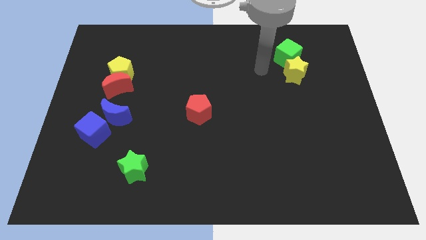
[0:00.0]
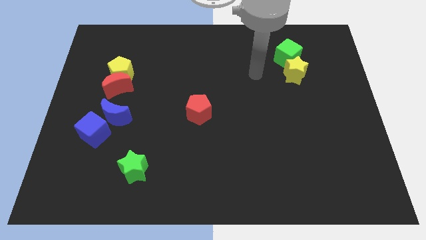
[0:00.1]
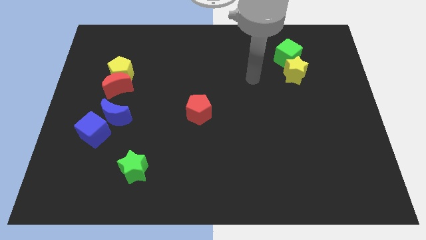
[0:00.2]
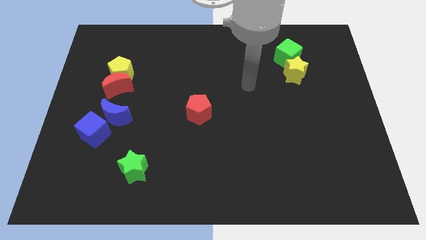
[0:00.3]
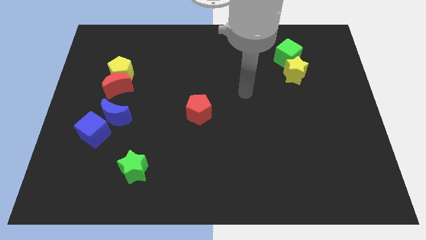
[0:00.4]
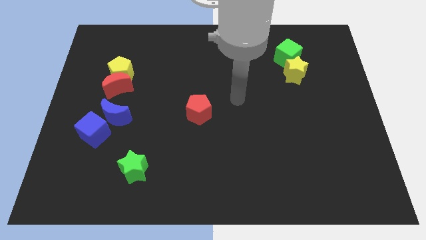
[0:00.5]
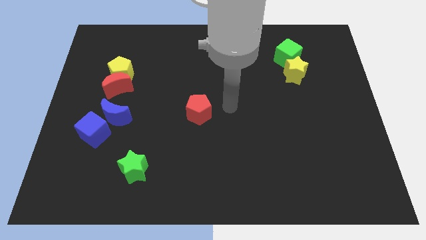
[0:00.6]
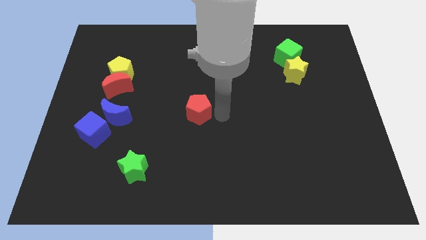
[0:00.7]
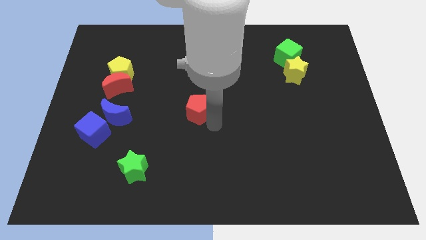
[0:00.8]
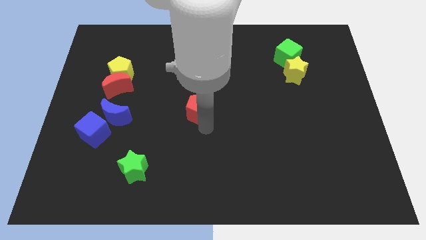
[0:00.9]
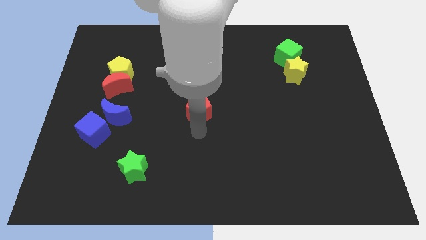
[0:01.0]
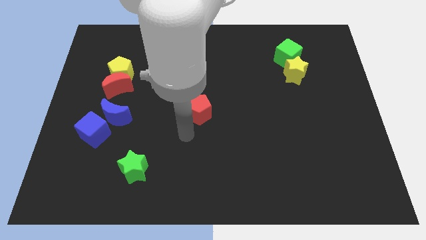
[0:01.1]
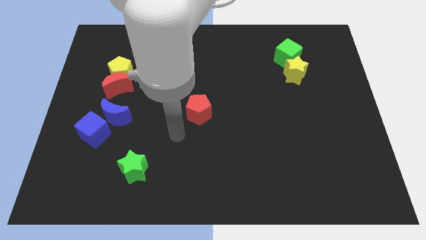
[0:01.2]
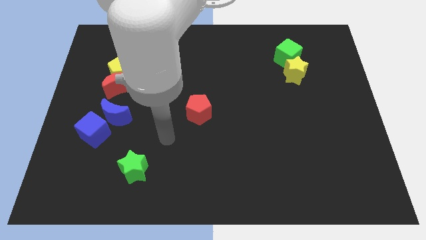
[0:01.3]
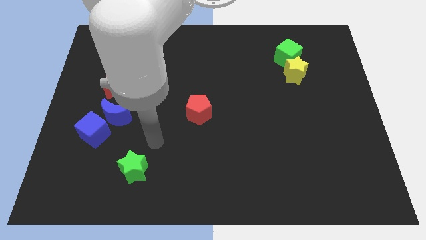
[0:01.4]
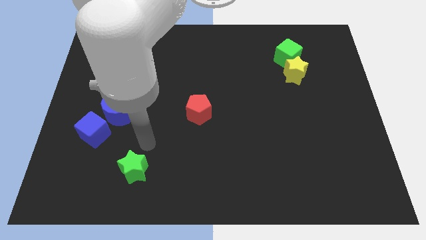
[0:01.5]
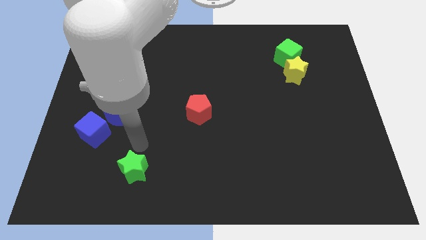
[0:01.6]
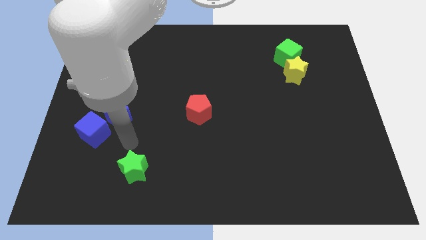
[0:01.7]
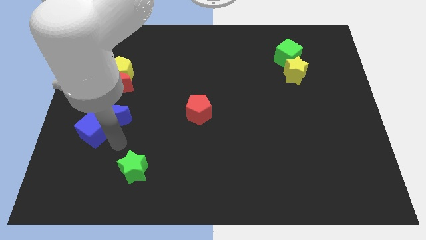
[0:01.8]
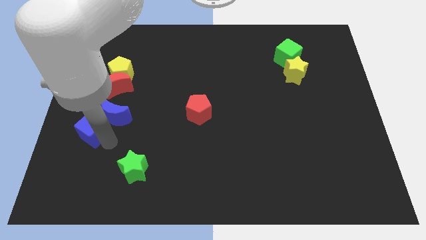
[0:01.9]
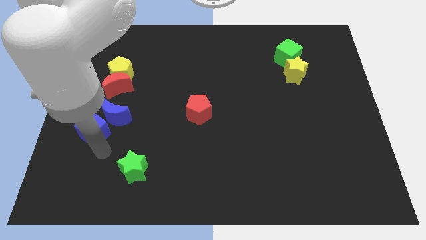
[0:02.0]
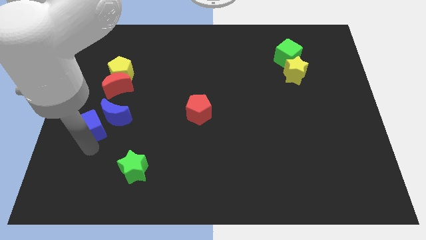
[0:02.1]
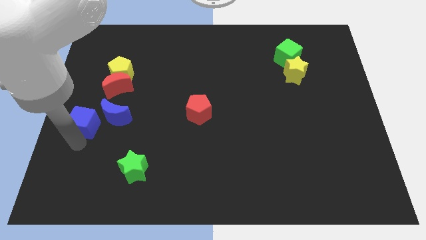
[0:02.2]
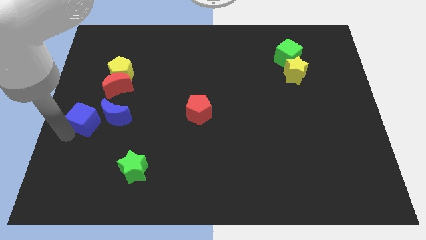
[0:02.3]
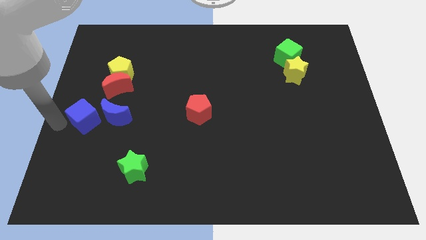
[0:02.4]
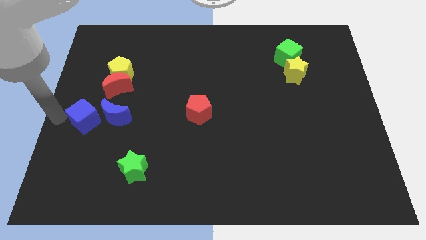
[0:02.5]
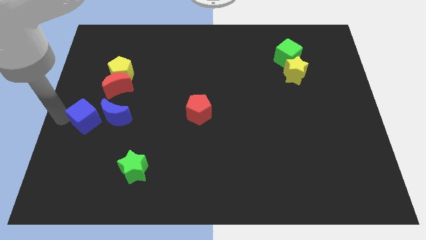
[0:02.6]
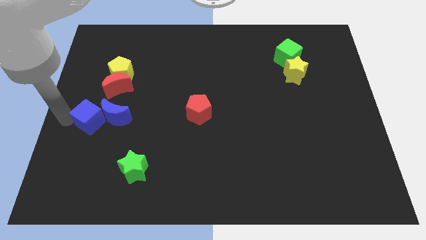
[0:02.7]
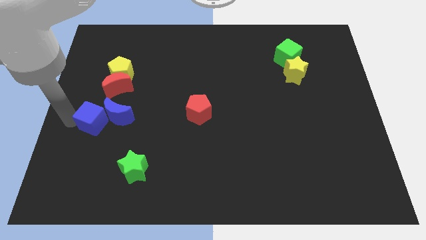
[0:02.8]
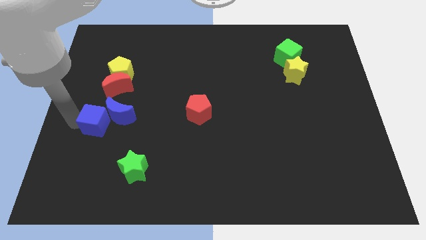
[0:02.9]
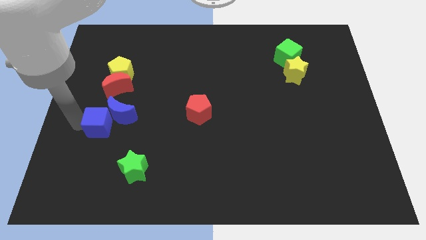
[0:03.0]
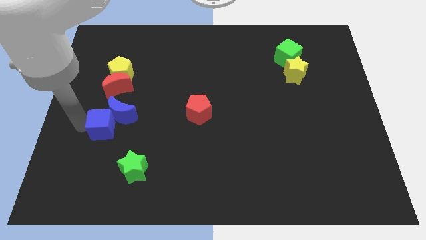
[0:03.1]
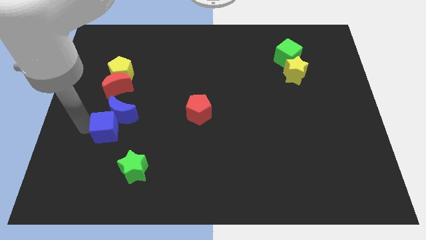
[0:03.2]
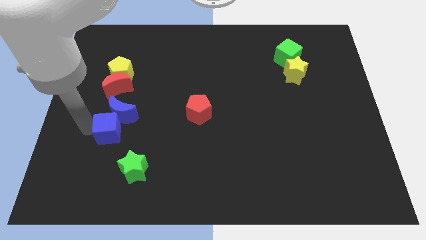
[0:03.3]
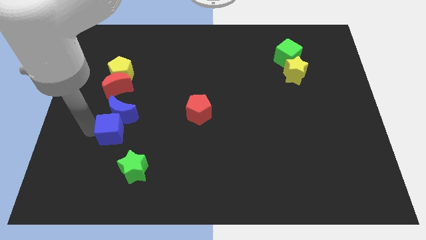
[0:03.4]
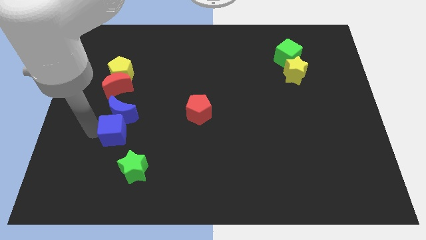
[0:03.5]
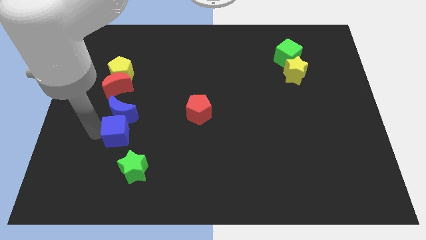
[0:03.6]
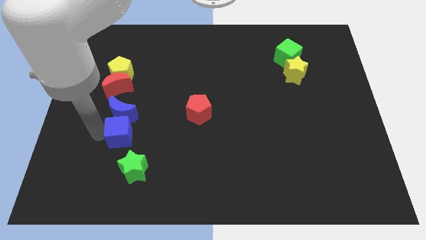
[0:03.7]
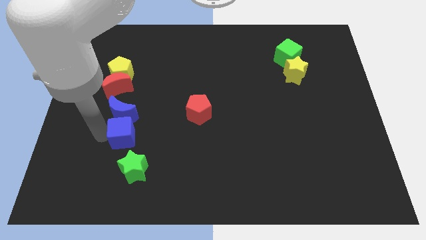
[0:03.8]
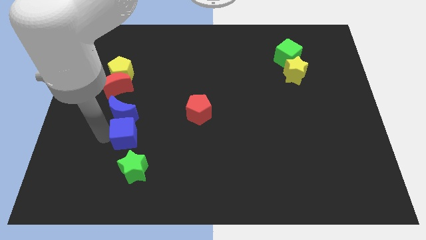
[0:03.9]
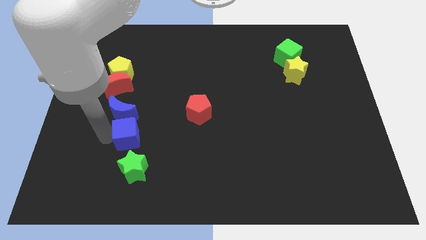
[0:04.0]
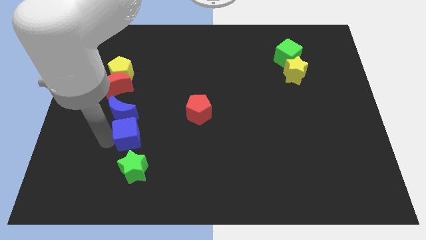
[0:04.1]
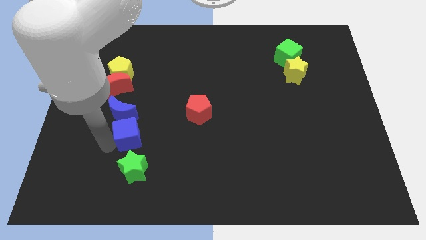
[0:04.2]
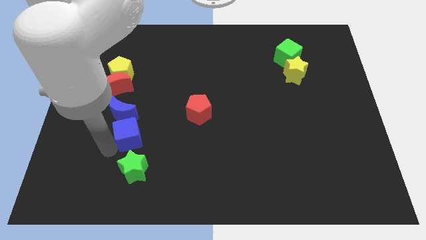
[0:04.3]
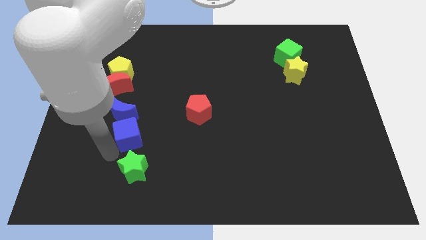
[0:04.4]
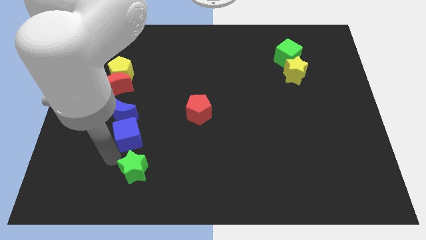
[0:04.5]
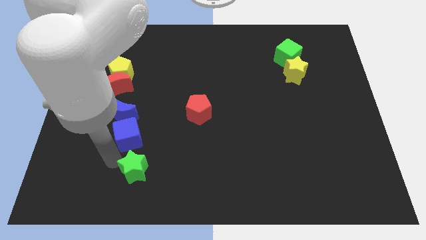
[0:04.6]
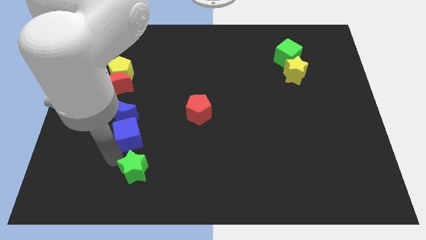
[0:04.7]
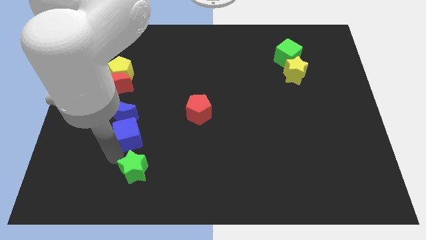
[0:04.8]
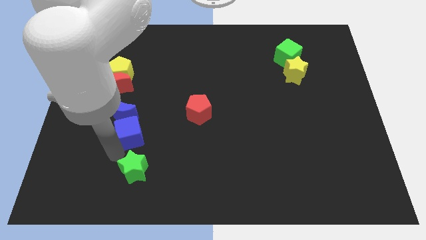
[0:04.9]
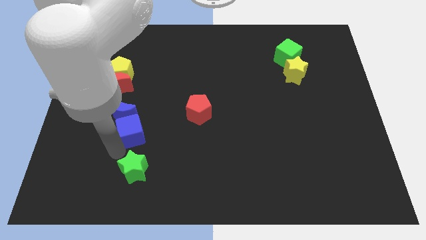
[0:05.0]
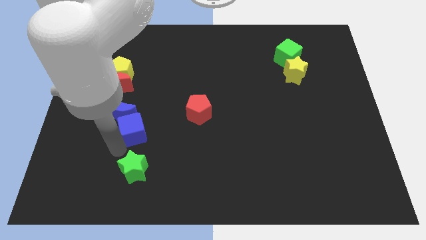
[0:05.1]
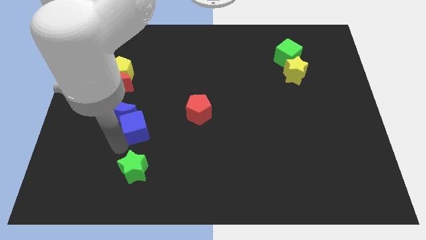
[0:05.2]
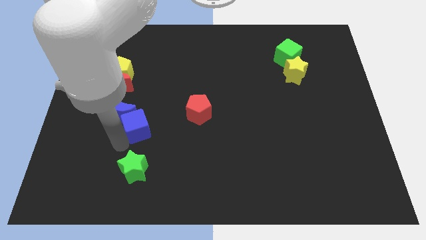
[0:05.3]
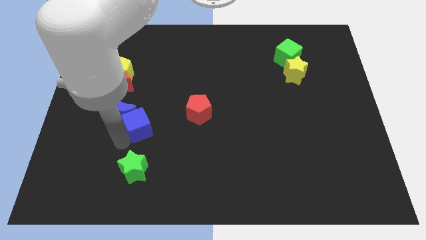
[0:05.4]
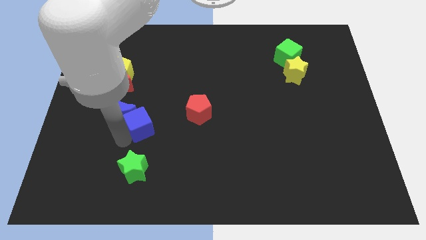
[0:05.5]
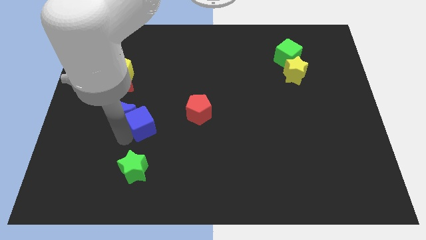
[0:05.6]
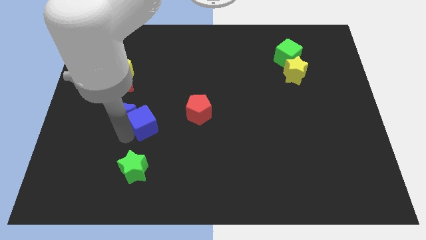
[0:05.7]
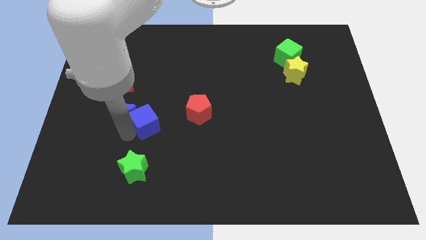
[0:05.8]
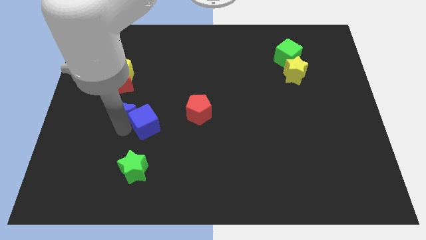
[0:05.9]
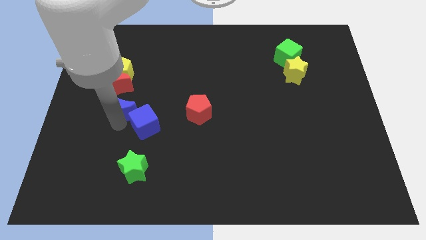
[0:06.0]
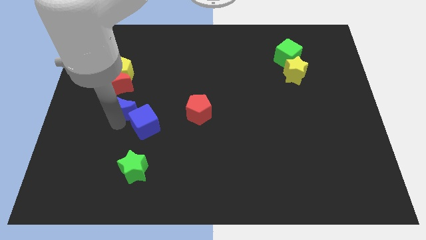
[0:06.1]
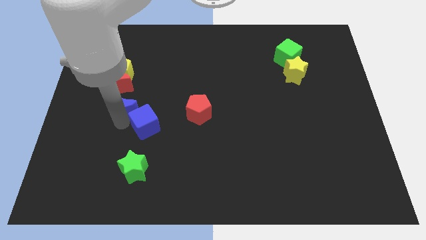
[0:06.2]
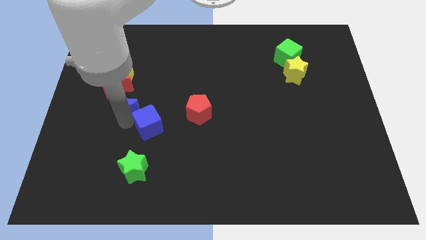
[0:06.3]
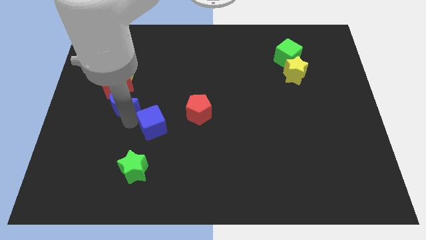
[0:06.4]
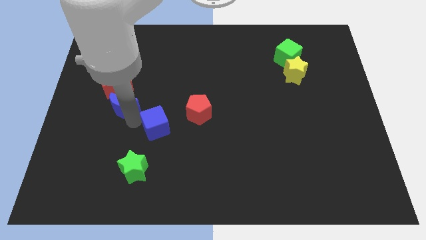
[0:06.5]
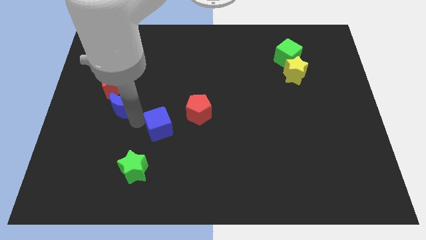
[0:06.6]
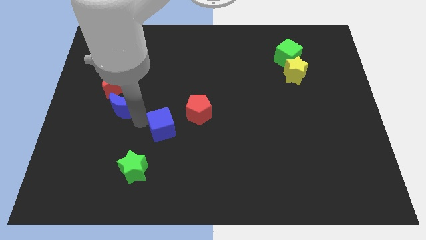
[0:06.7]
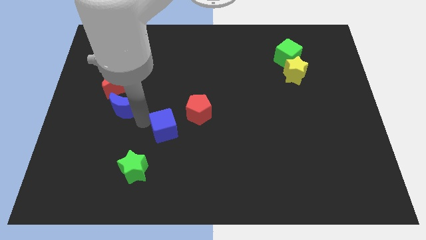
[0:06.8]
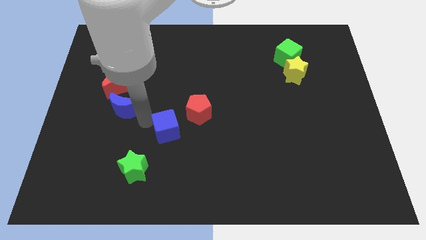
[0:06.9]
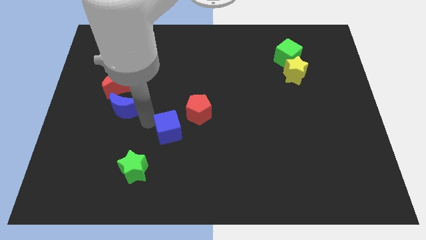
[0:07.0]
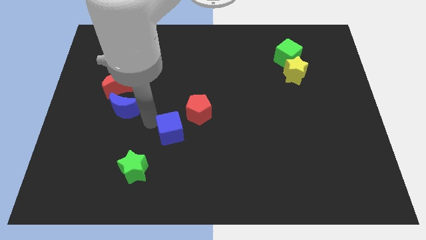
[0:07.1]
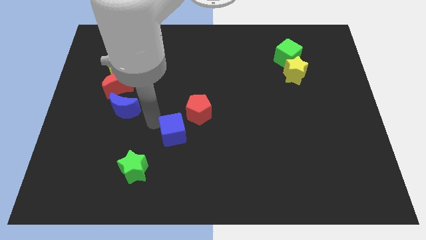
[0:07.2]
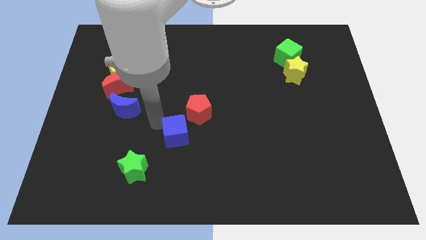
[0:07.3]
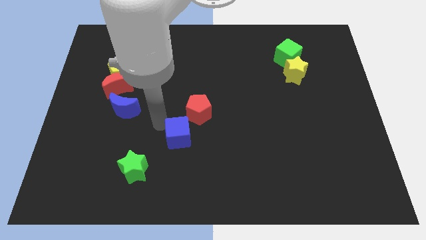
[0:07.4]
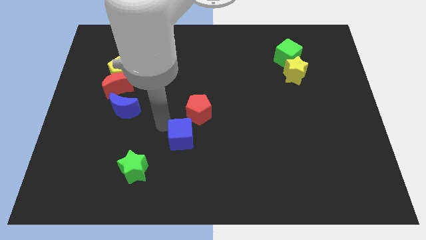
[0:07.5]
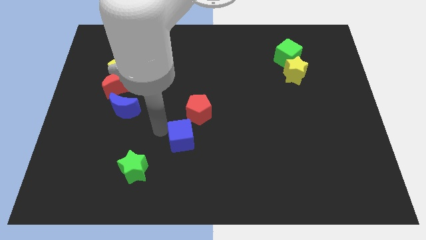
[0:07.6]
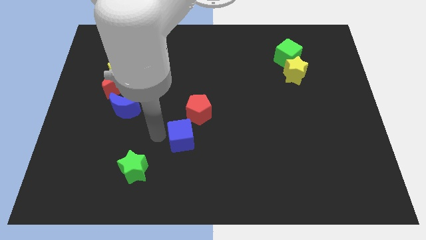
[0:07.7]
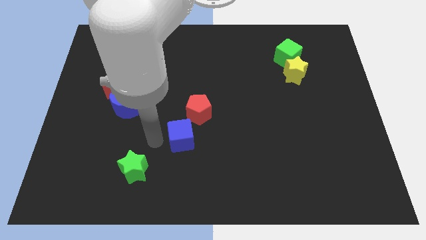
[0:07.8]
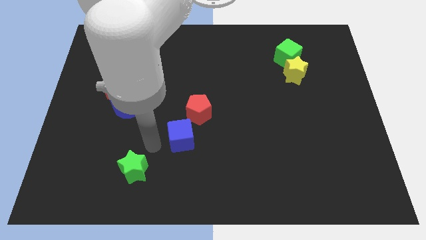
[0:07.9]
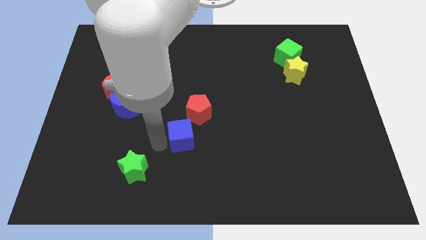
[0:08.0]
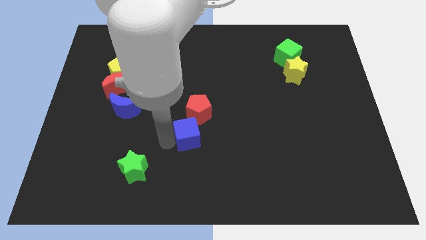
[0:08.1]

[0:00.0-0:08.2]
slide the blue cube to the right
